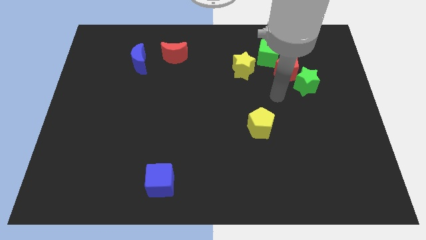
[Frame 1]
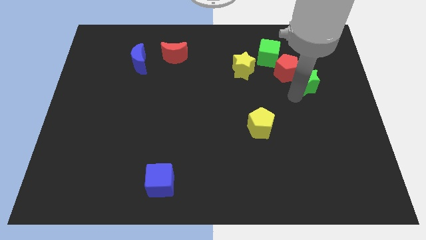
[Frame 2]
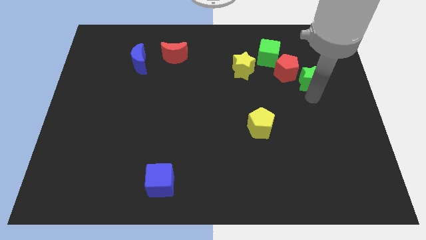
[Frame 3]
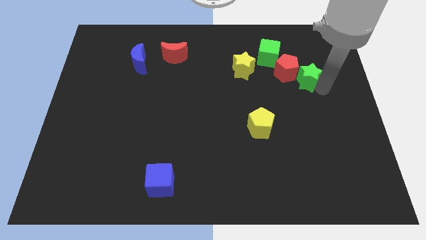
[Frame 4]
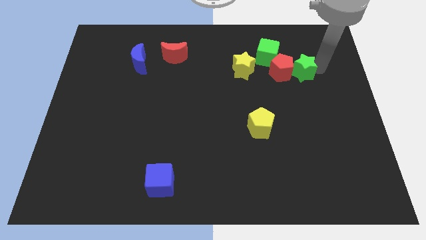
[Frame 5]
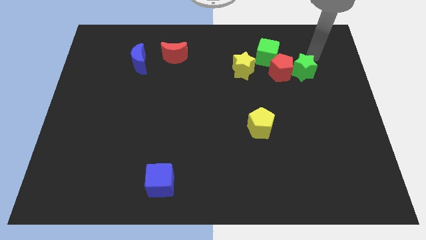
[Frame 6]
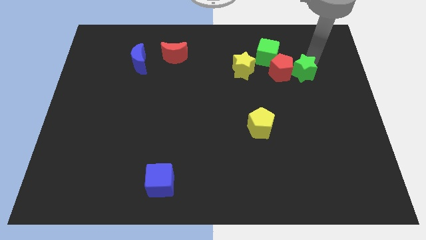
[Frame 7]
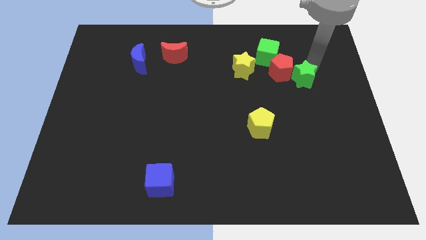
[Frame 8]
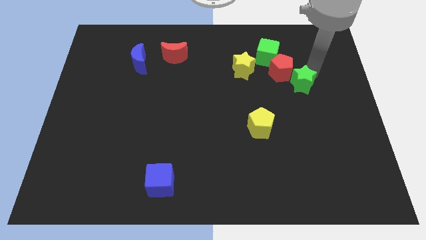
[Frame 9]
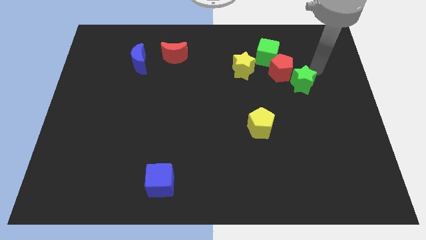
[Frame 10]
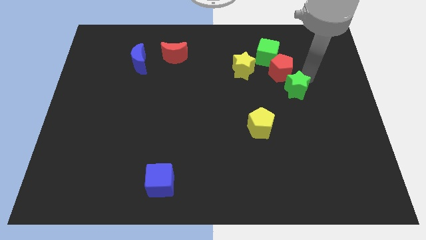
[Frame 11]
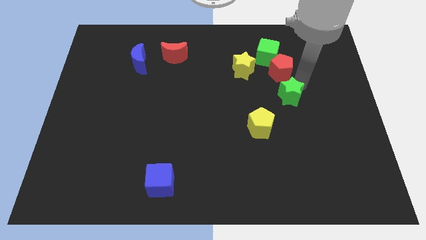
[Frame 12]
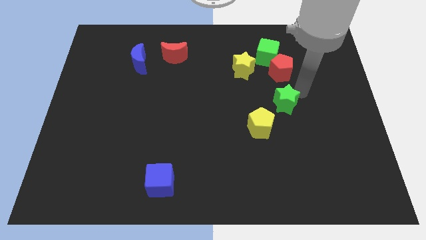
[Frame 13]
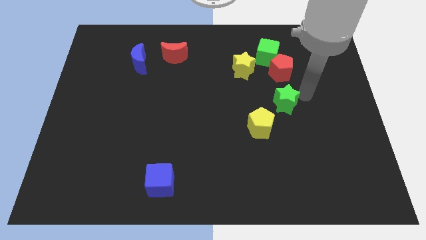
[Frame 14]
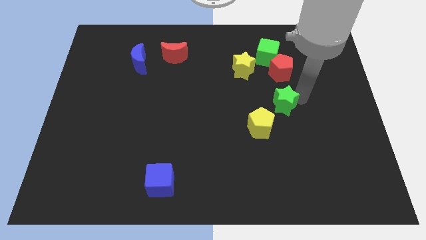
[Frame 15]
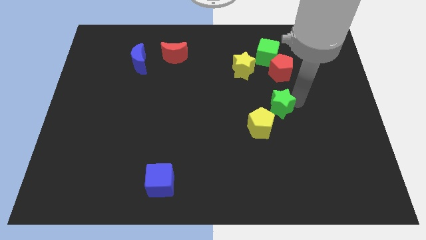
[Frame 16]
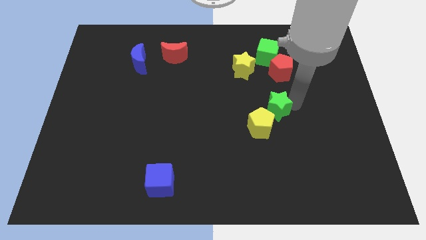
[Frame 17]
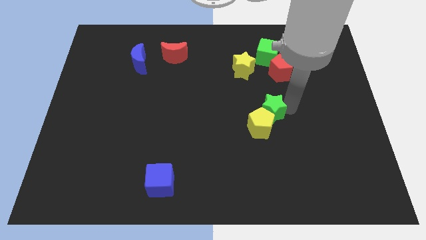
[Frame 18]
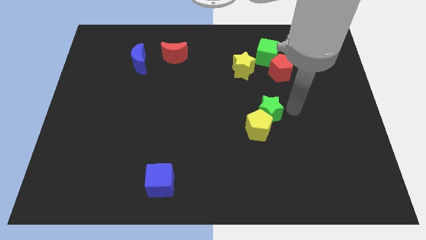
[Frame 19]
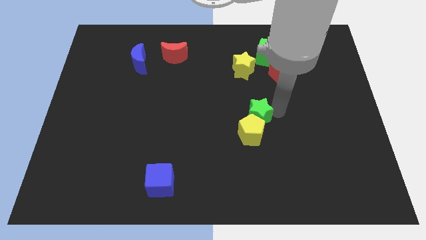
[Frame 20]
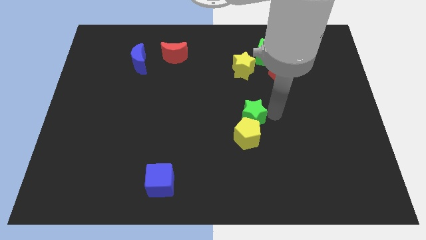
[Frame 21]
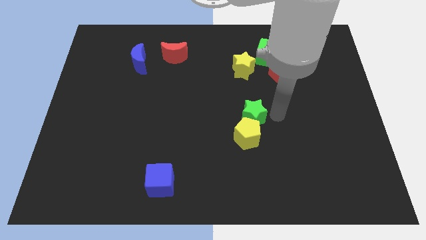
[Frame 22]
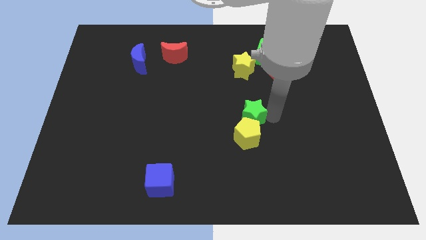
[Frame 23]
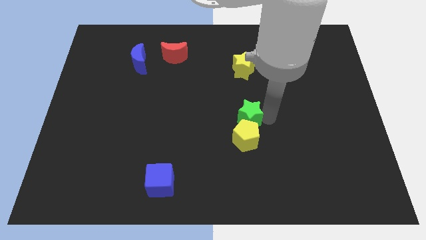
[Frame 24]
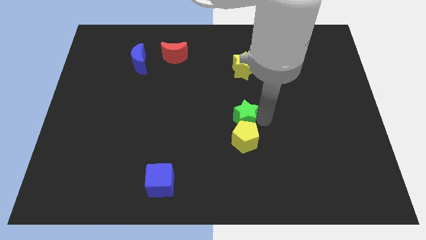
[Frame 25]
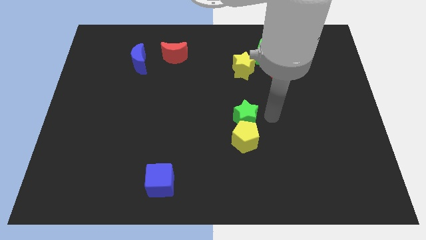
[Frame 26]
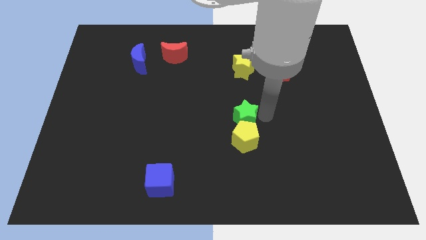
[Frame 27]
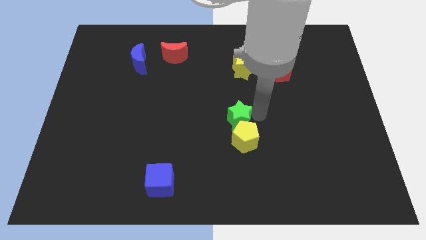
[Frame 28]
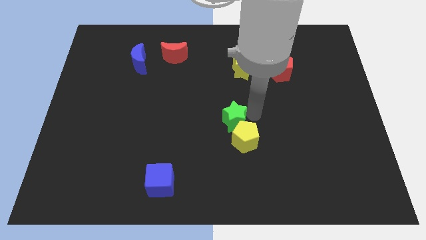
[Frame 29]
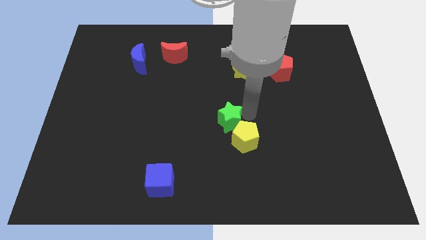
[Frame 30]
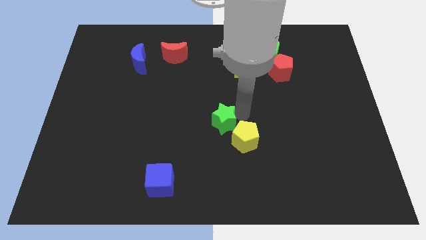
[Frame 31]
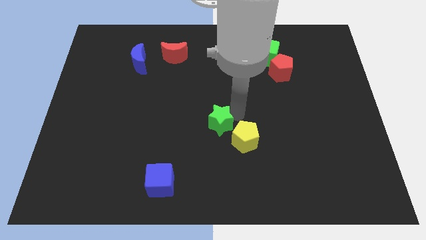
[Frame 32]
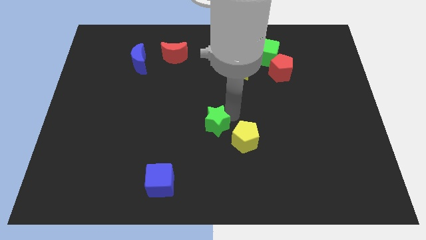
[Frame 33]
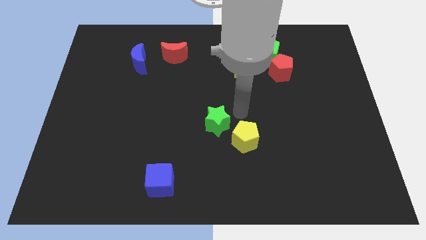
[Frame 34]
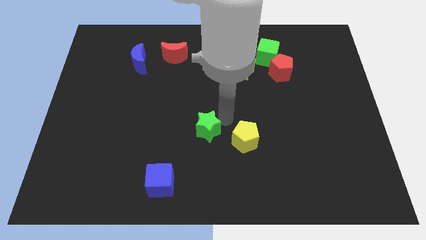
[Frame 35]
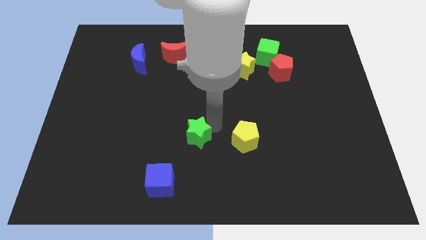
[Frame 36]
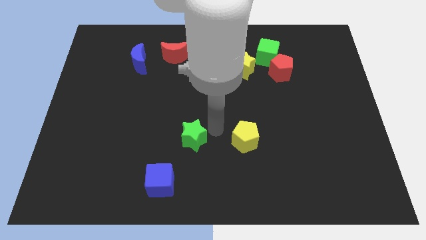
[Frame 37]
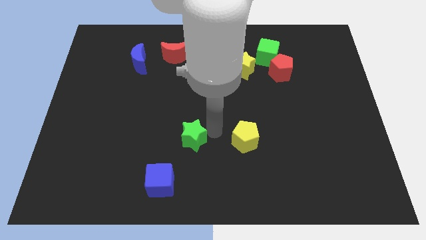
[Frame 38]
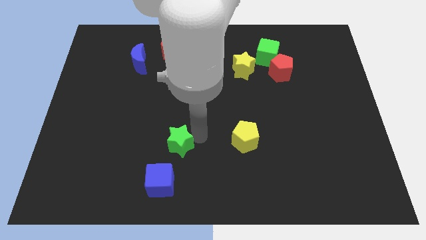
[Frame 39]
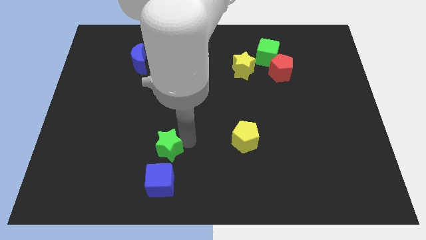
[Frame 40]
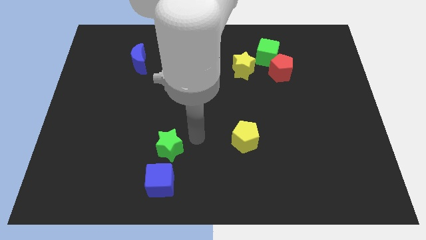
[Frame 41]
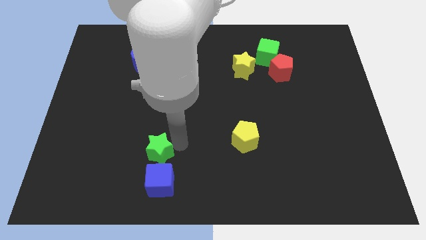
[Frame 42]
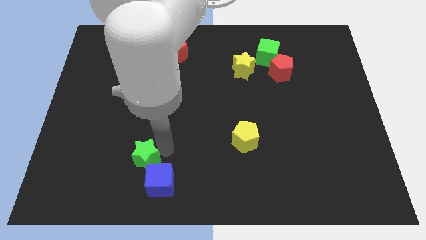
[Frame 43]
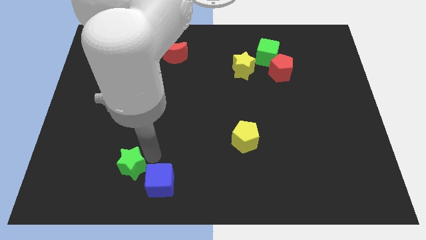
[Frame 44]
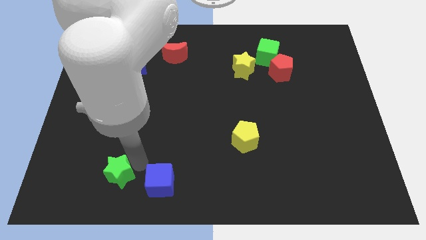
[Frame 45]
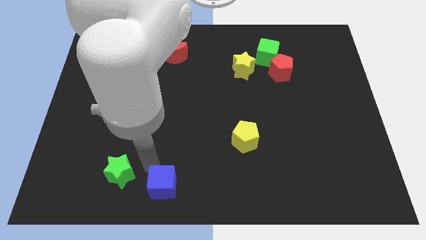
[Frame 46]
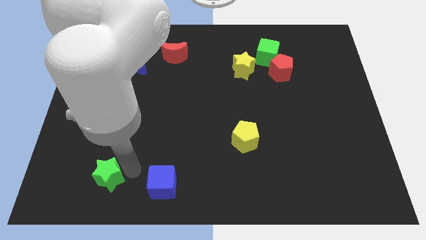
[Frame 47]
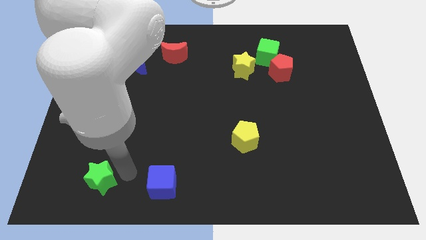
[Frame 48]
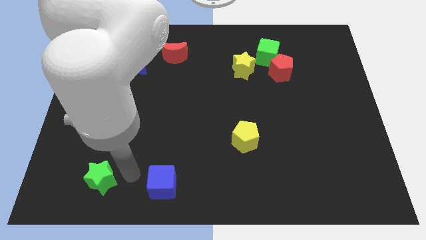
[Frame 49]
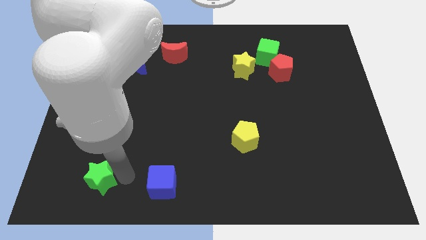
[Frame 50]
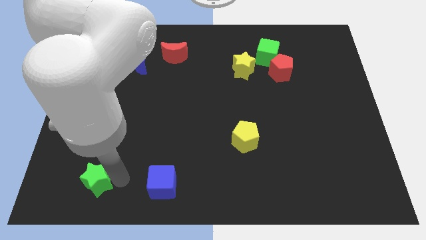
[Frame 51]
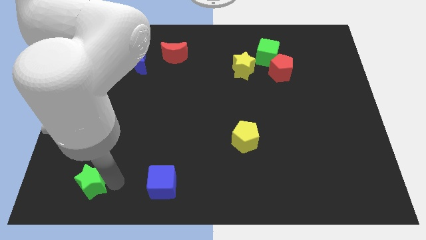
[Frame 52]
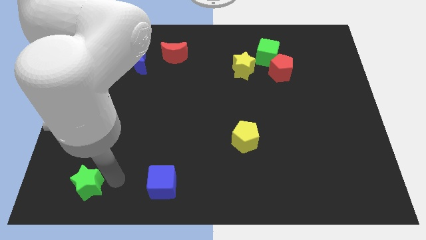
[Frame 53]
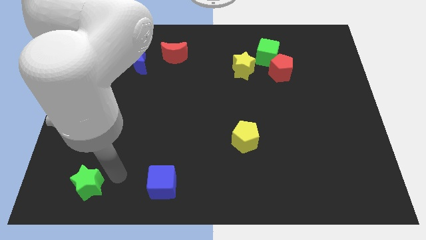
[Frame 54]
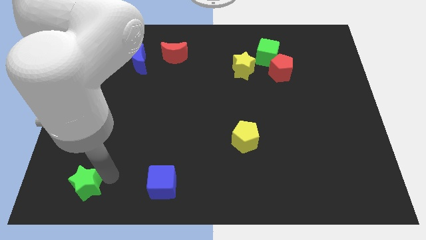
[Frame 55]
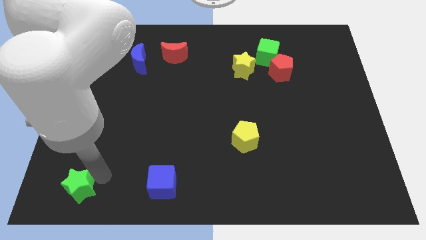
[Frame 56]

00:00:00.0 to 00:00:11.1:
put the green star to the bottom left corner
